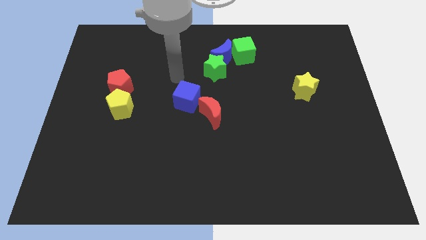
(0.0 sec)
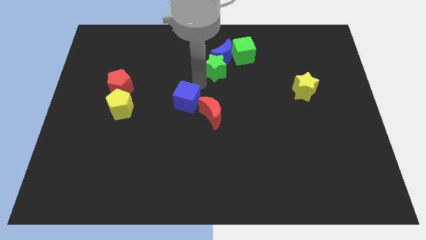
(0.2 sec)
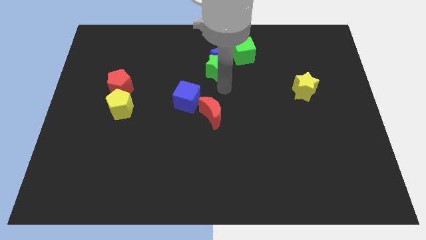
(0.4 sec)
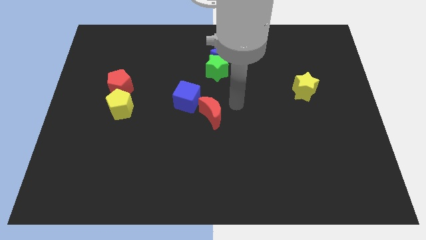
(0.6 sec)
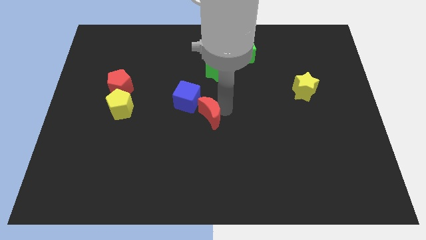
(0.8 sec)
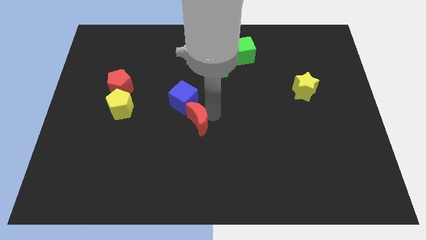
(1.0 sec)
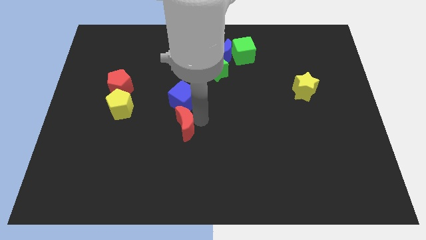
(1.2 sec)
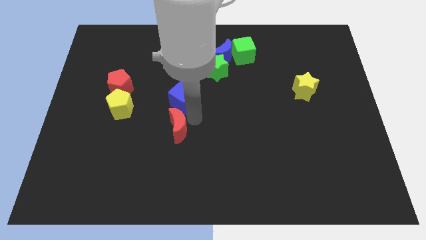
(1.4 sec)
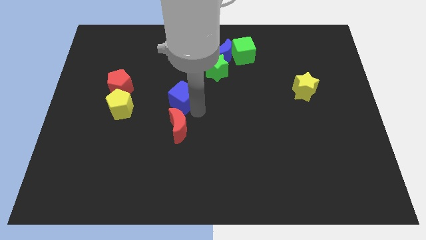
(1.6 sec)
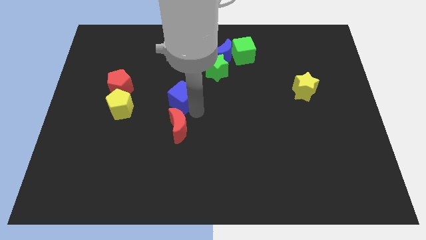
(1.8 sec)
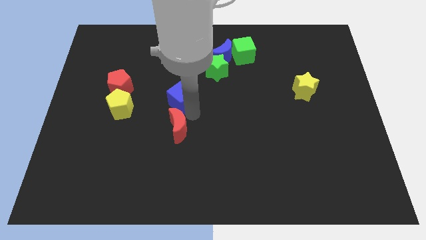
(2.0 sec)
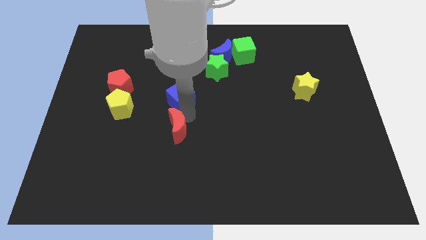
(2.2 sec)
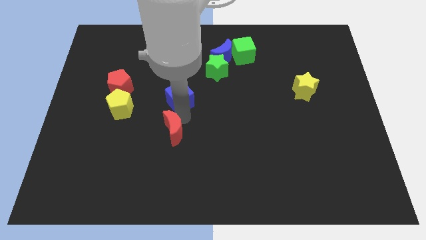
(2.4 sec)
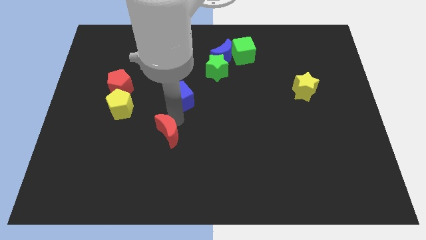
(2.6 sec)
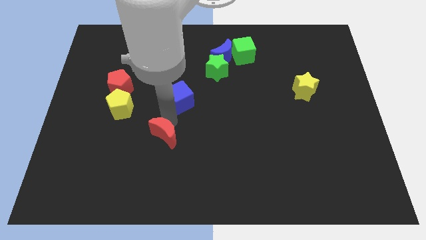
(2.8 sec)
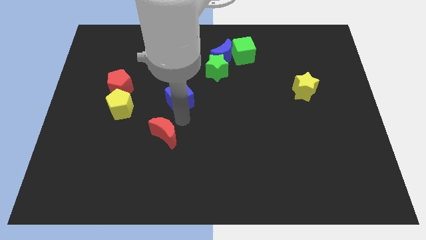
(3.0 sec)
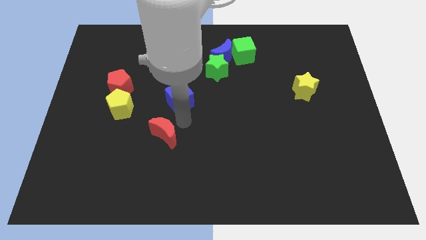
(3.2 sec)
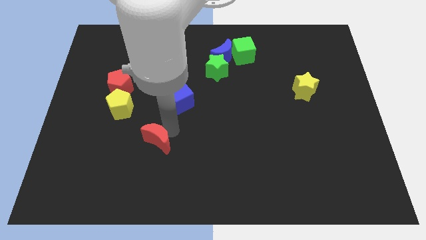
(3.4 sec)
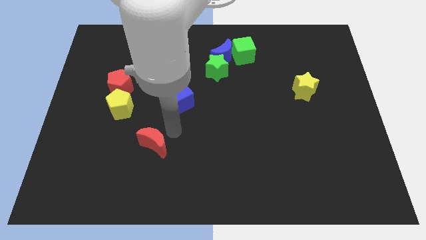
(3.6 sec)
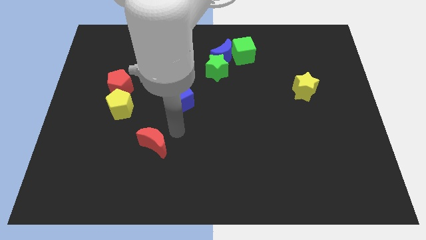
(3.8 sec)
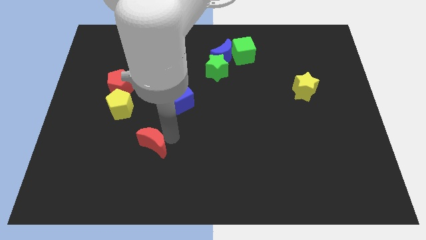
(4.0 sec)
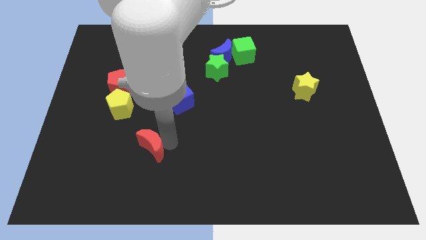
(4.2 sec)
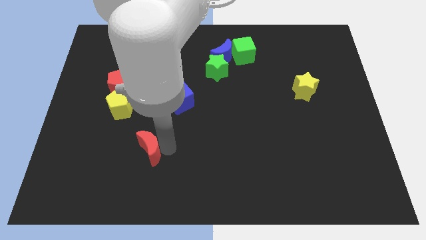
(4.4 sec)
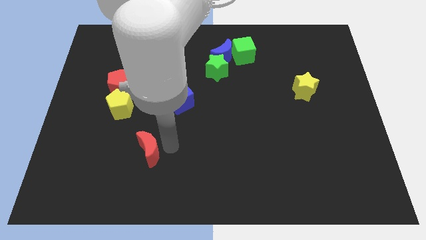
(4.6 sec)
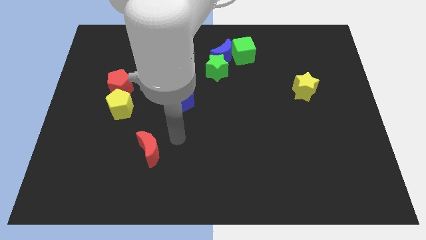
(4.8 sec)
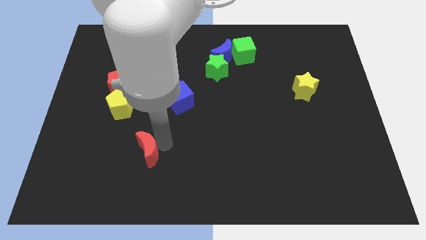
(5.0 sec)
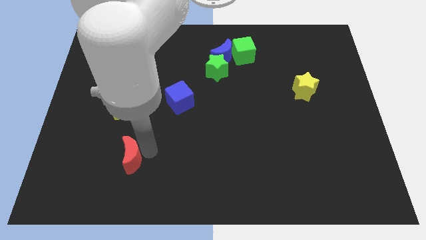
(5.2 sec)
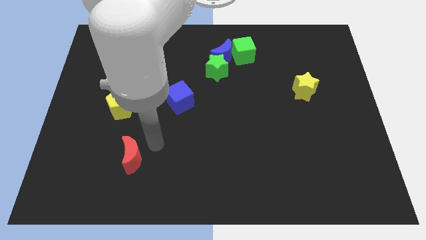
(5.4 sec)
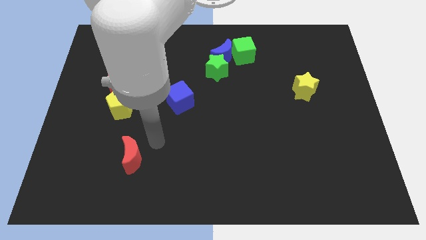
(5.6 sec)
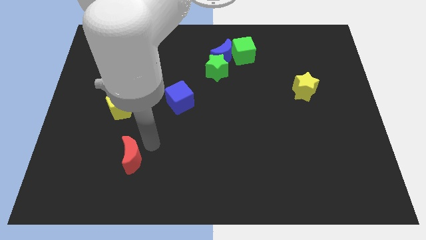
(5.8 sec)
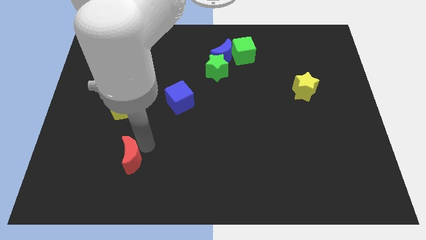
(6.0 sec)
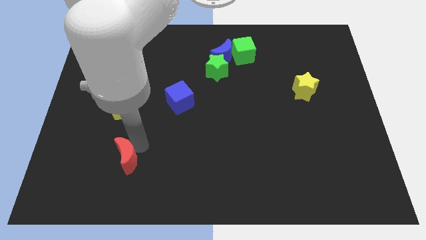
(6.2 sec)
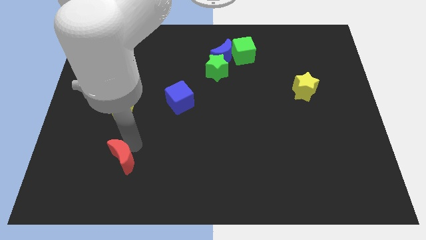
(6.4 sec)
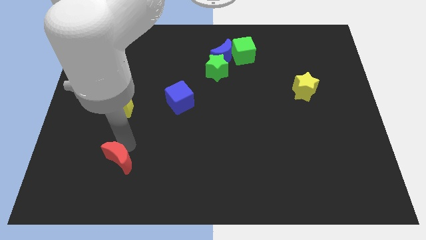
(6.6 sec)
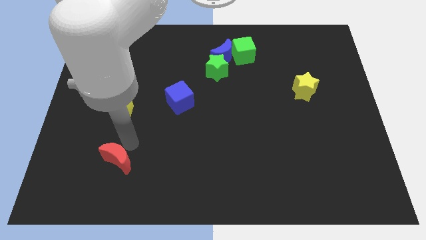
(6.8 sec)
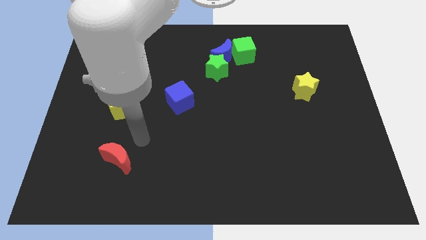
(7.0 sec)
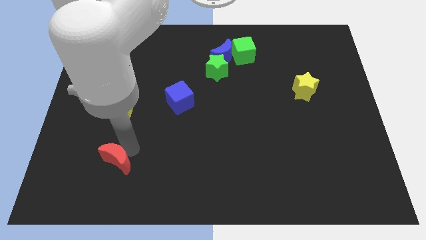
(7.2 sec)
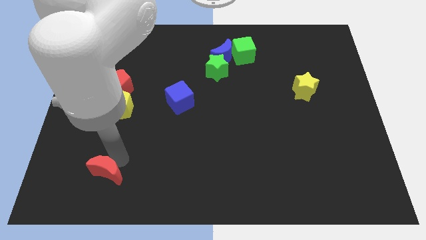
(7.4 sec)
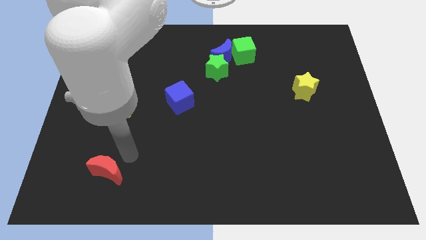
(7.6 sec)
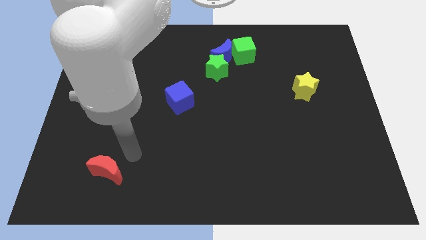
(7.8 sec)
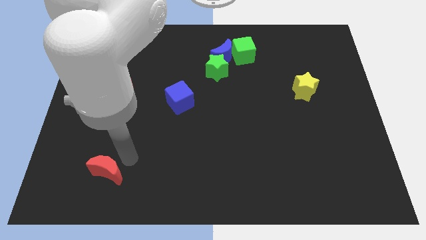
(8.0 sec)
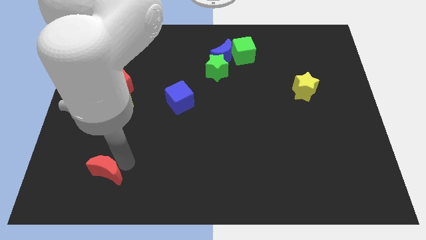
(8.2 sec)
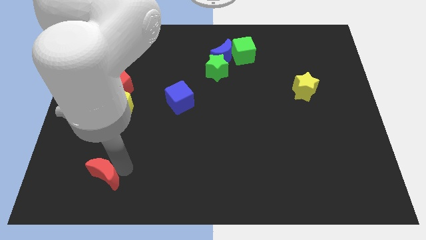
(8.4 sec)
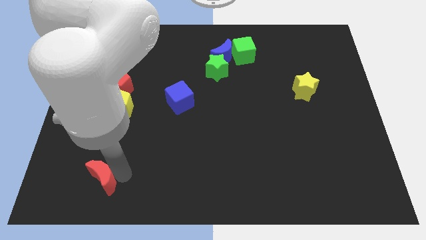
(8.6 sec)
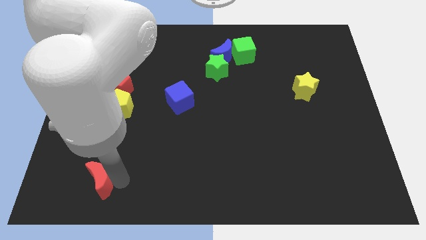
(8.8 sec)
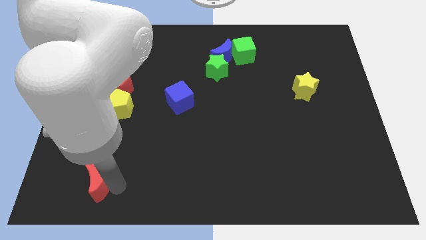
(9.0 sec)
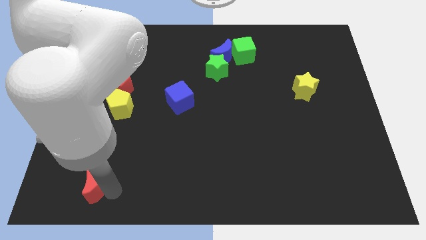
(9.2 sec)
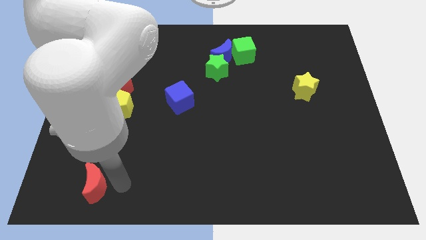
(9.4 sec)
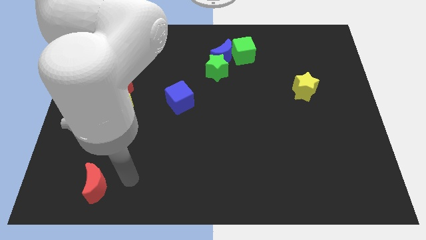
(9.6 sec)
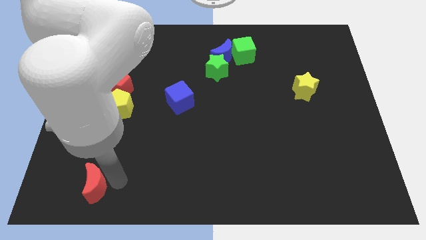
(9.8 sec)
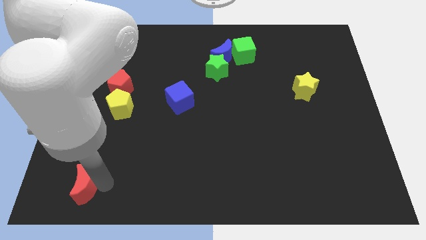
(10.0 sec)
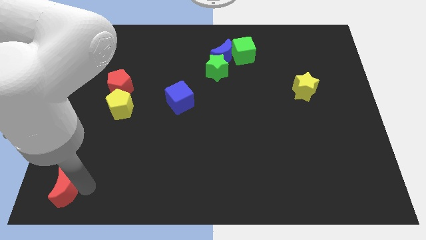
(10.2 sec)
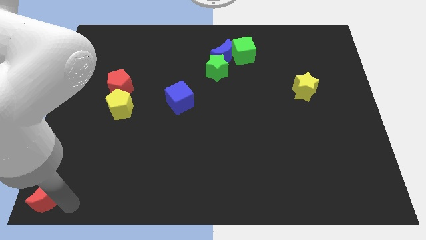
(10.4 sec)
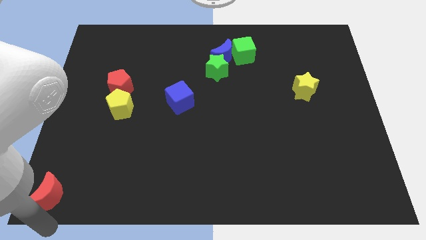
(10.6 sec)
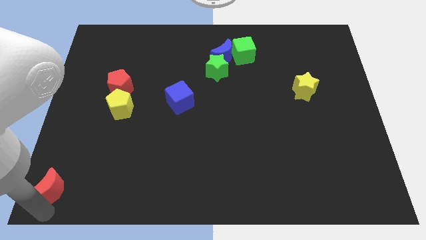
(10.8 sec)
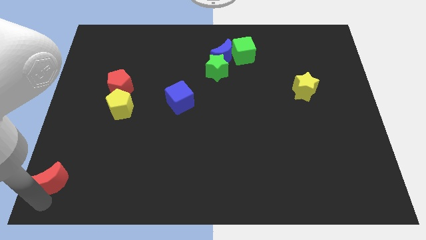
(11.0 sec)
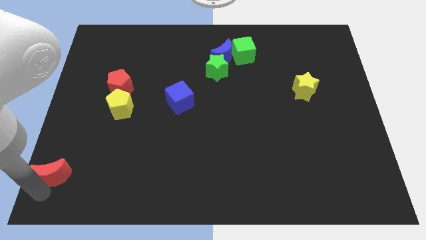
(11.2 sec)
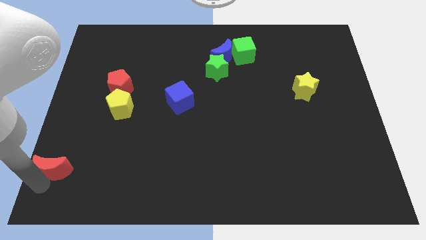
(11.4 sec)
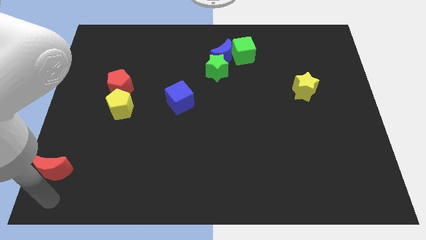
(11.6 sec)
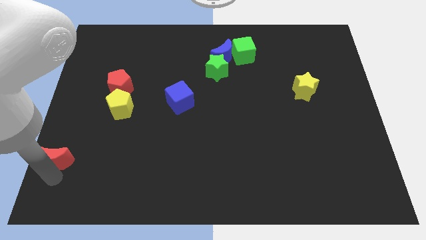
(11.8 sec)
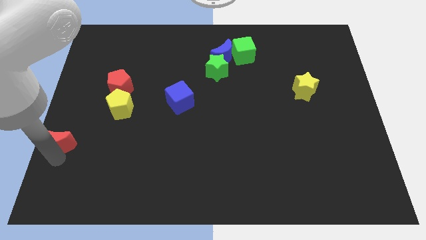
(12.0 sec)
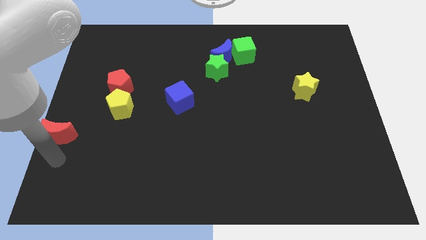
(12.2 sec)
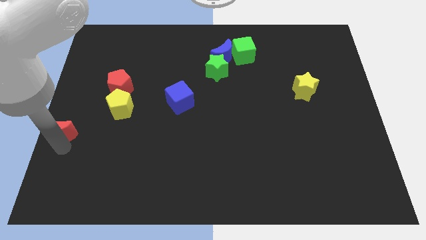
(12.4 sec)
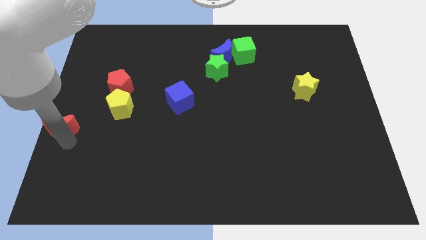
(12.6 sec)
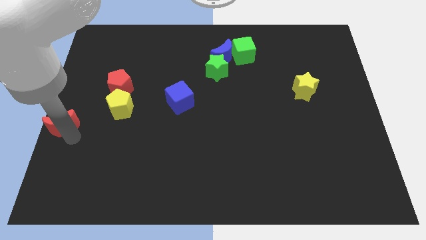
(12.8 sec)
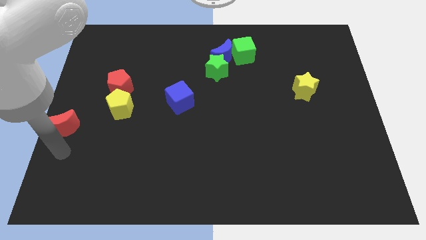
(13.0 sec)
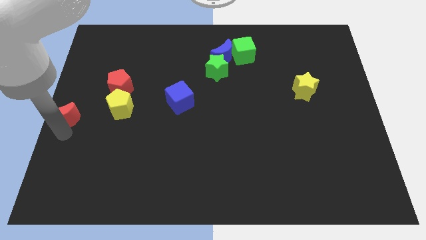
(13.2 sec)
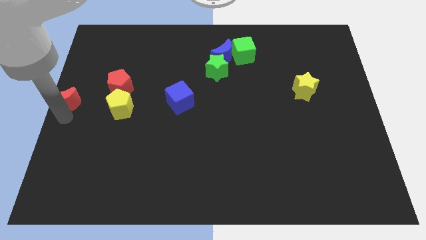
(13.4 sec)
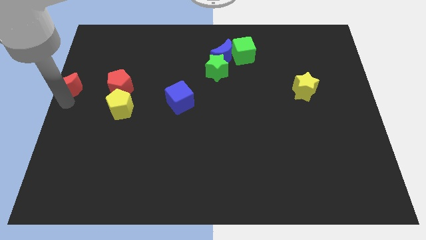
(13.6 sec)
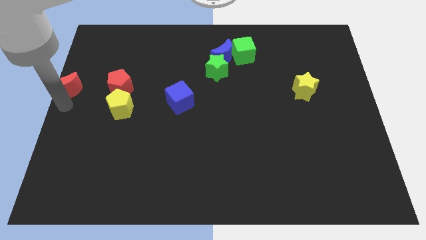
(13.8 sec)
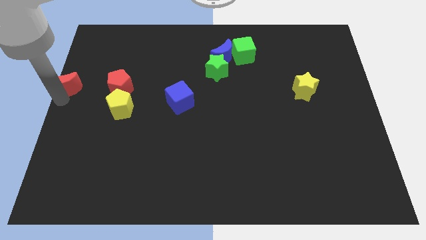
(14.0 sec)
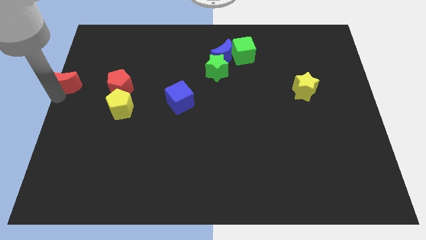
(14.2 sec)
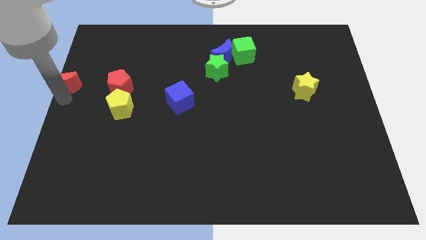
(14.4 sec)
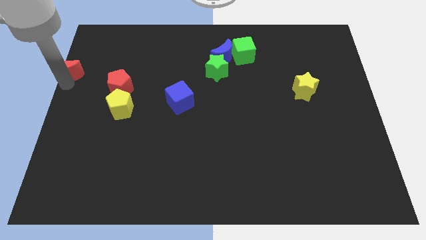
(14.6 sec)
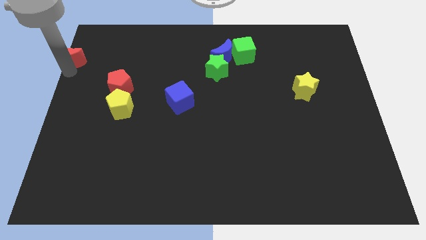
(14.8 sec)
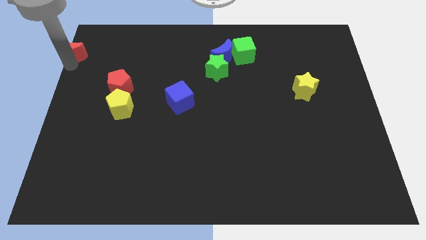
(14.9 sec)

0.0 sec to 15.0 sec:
slide the red moon to the top left corner
